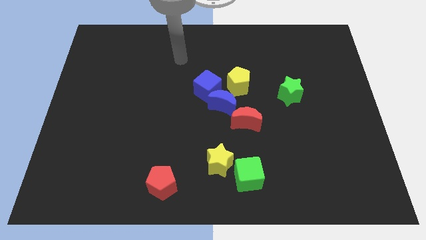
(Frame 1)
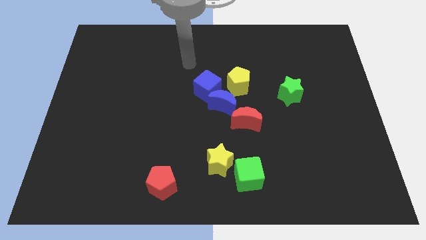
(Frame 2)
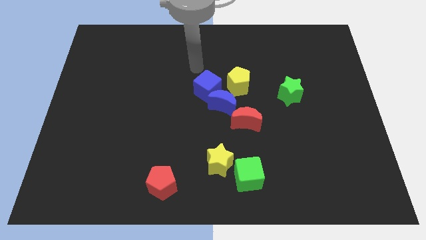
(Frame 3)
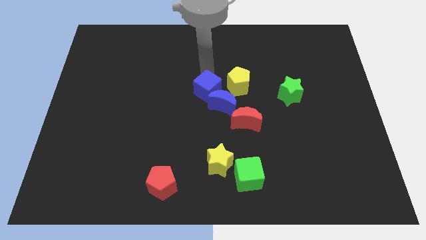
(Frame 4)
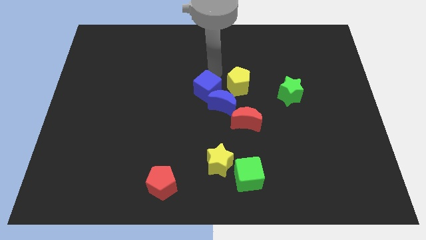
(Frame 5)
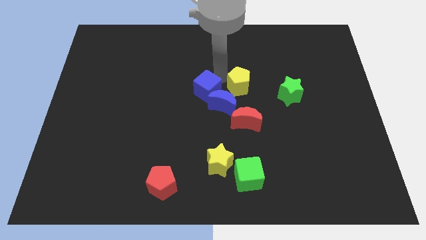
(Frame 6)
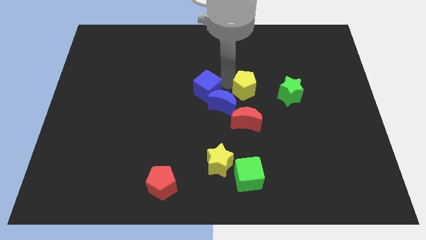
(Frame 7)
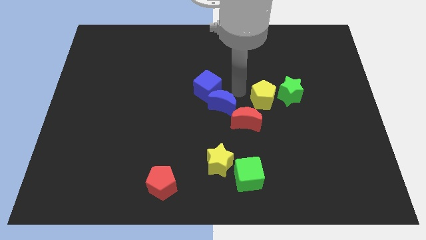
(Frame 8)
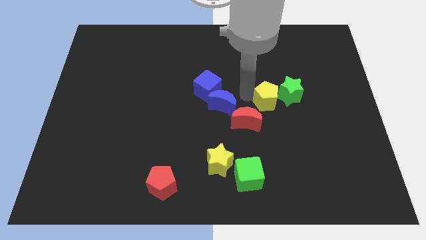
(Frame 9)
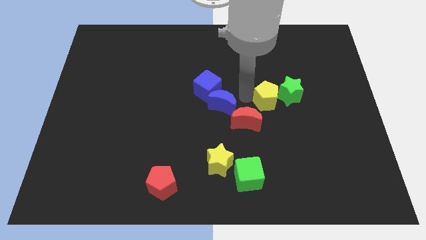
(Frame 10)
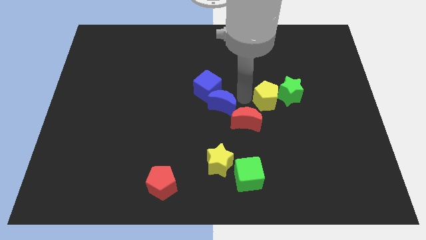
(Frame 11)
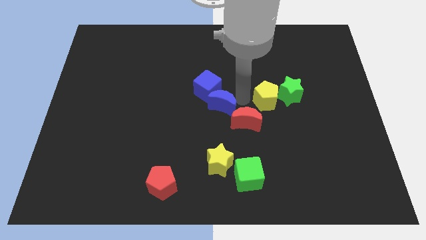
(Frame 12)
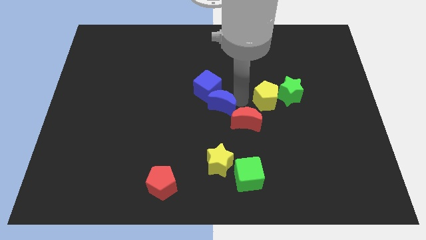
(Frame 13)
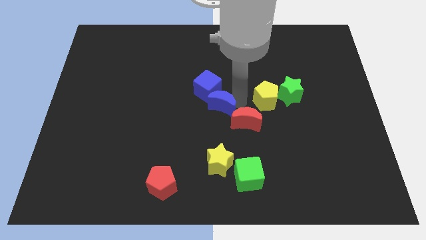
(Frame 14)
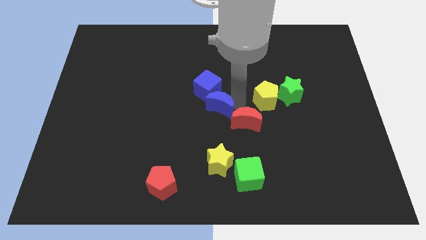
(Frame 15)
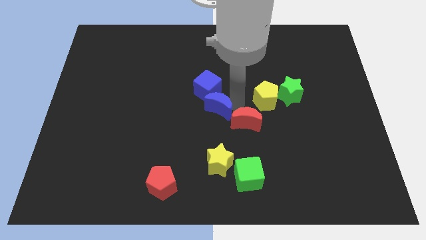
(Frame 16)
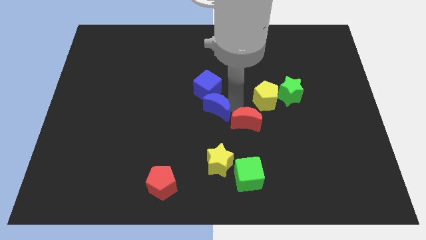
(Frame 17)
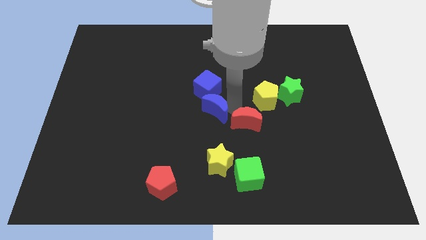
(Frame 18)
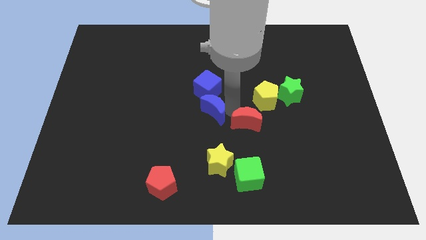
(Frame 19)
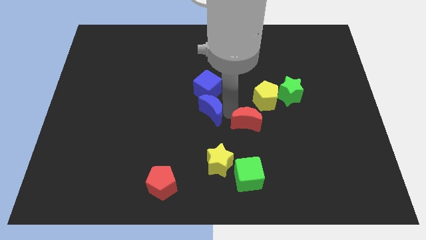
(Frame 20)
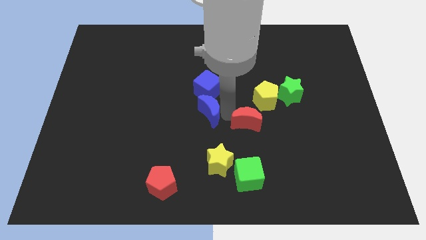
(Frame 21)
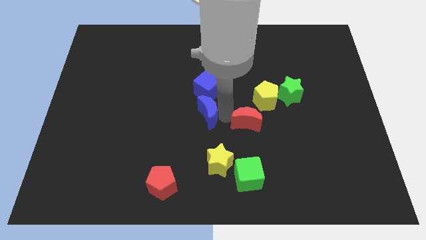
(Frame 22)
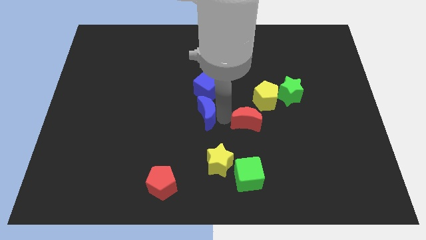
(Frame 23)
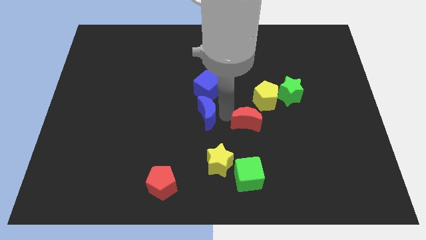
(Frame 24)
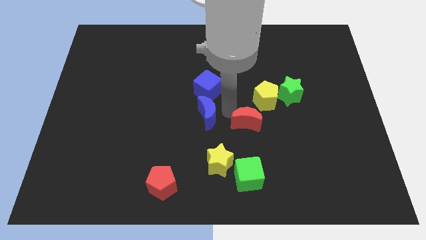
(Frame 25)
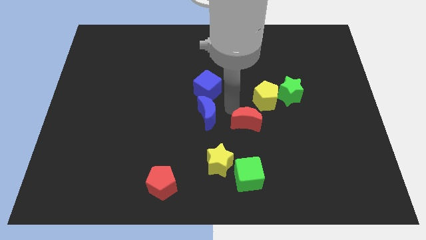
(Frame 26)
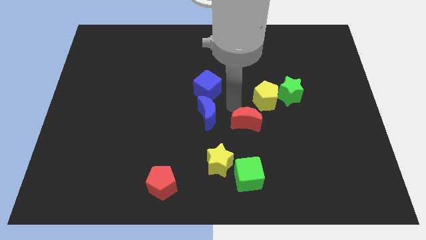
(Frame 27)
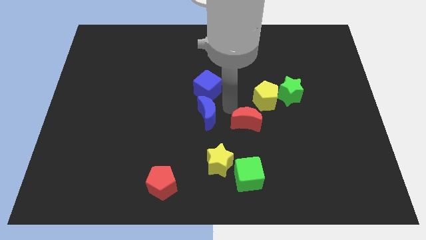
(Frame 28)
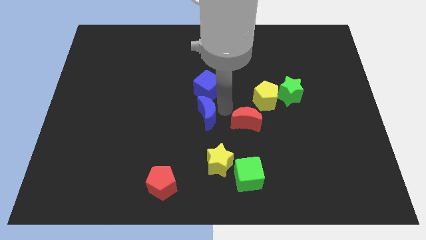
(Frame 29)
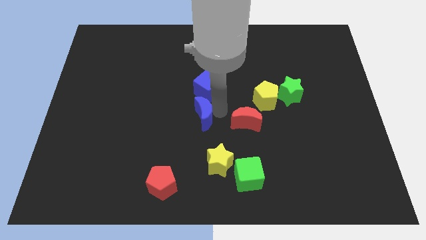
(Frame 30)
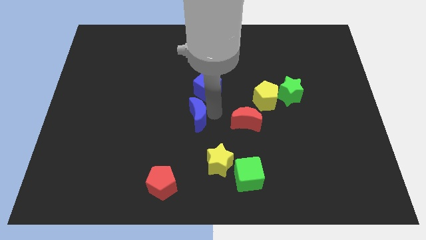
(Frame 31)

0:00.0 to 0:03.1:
move the blue moon away from the blue cube, red moon, and yellow pentagon

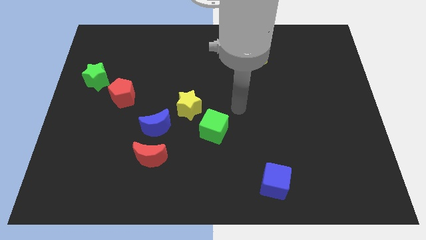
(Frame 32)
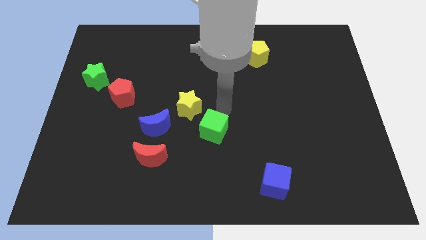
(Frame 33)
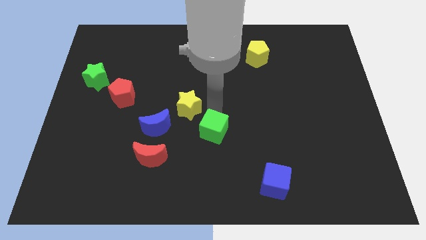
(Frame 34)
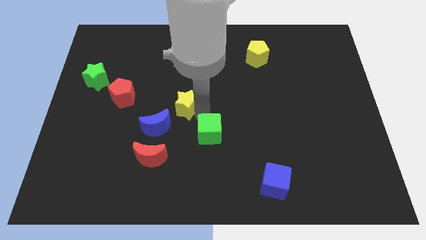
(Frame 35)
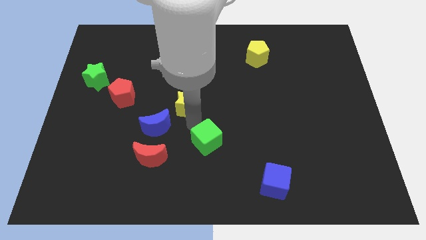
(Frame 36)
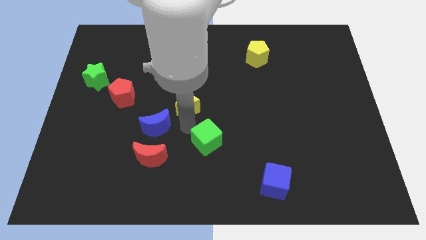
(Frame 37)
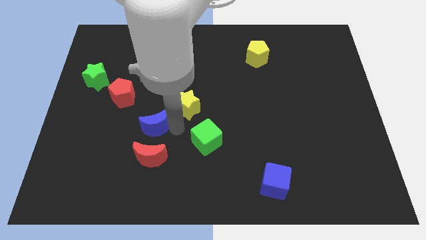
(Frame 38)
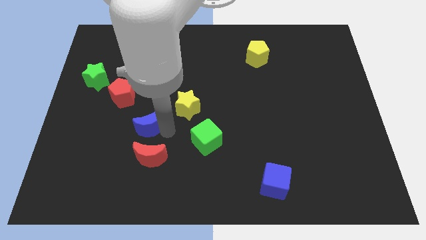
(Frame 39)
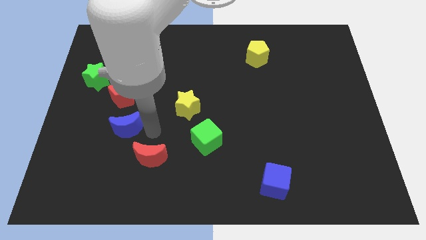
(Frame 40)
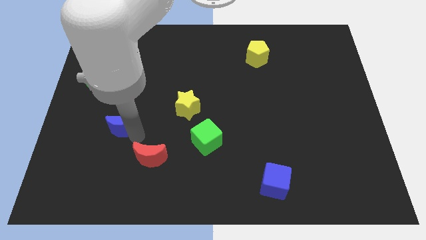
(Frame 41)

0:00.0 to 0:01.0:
separate the red moon from the blue moon

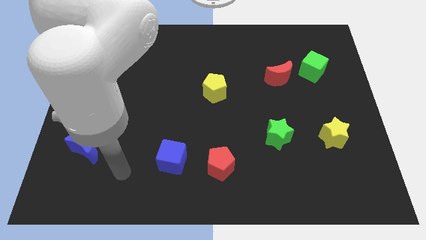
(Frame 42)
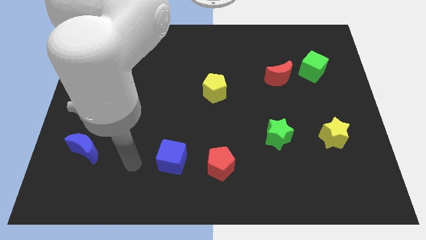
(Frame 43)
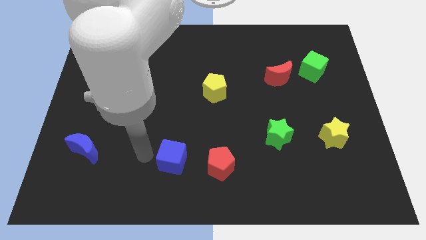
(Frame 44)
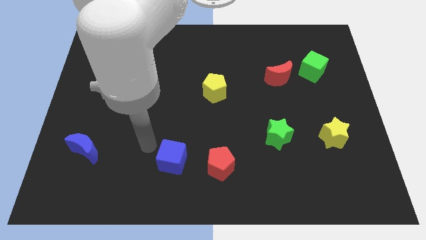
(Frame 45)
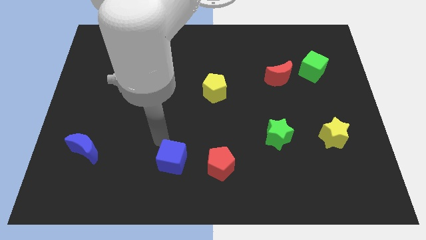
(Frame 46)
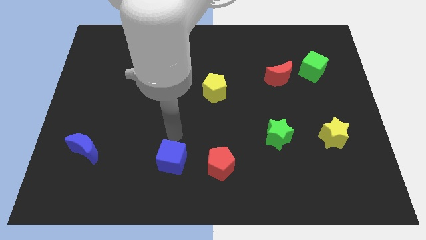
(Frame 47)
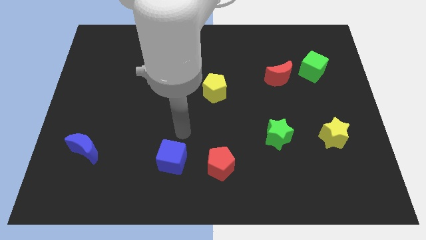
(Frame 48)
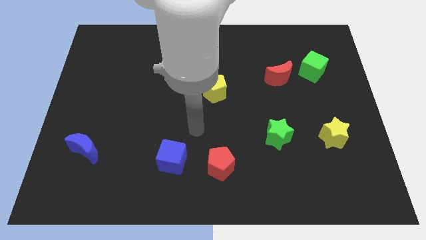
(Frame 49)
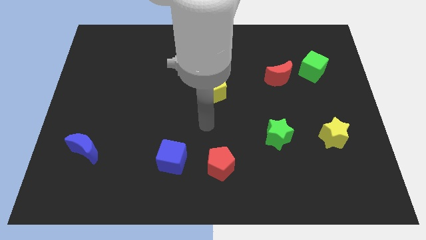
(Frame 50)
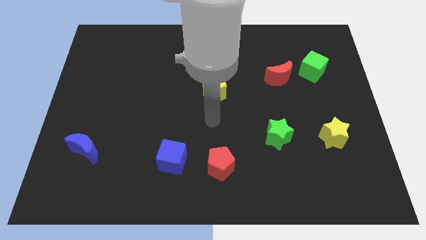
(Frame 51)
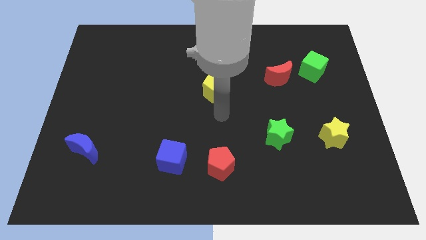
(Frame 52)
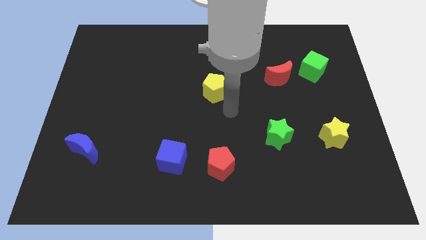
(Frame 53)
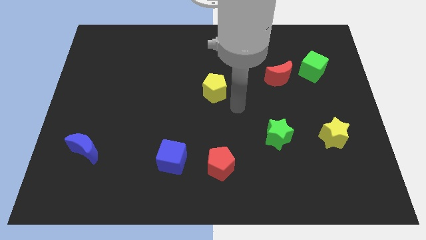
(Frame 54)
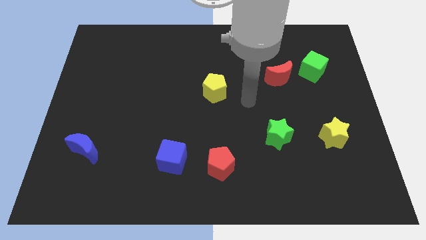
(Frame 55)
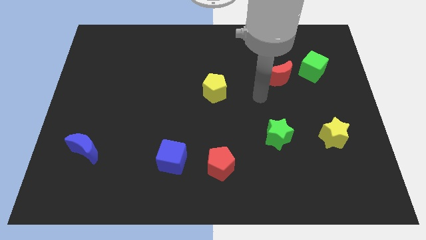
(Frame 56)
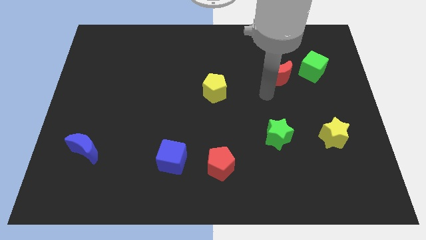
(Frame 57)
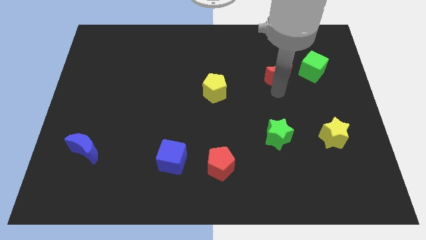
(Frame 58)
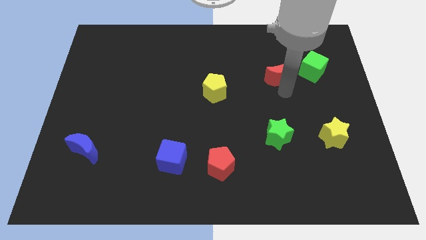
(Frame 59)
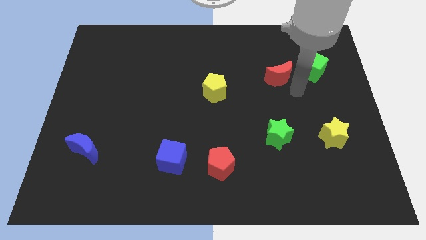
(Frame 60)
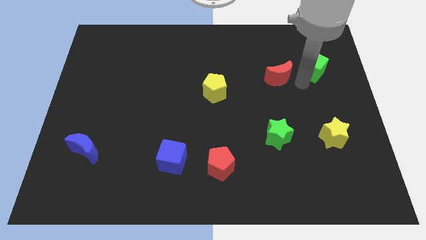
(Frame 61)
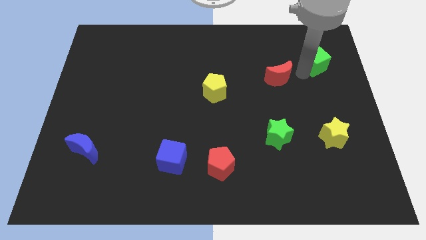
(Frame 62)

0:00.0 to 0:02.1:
separate the red moon from the green cube

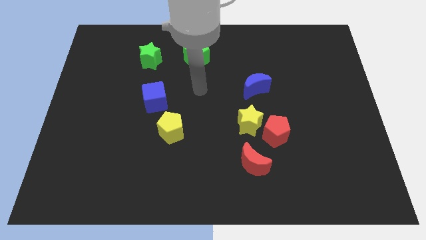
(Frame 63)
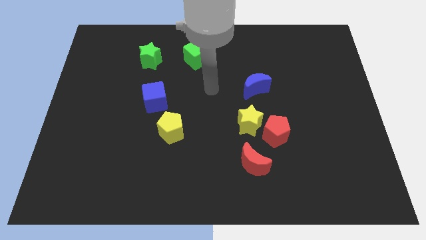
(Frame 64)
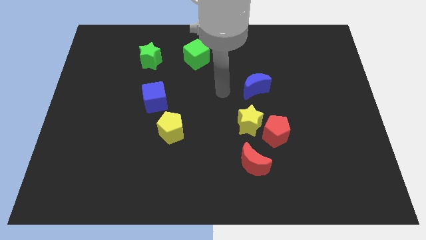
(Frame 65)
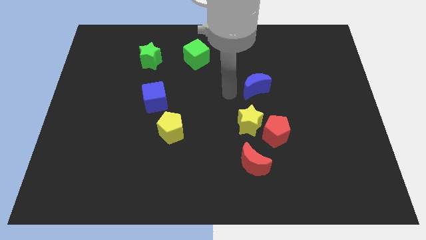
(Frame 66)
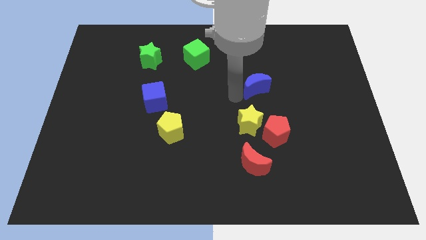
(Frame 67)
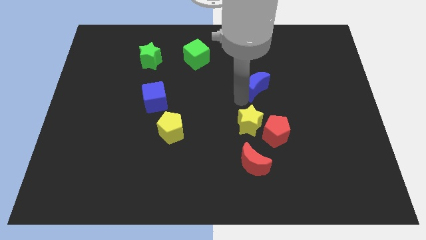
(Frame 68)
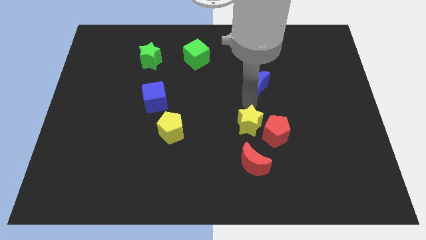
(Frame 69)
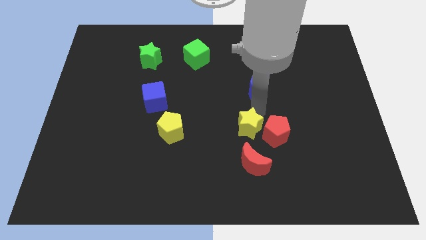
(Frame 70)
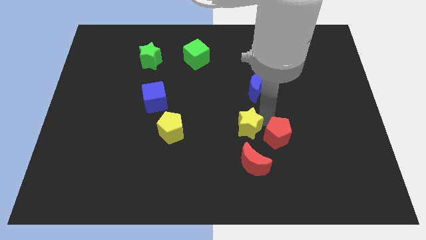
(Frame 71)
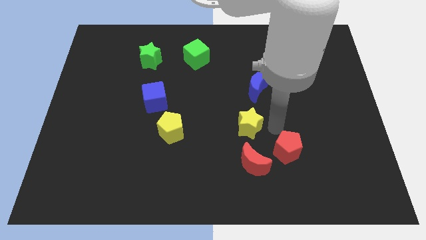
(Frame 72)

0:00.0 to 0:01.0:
pull the yellow star apart from the red pentagon

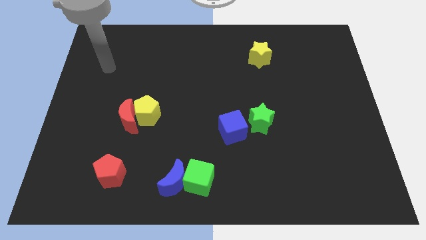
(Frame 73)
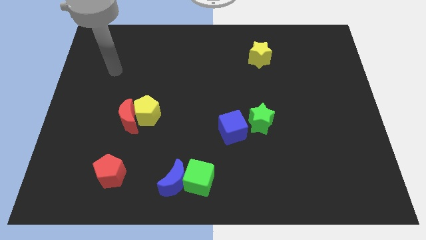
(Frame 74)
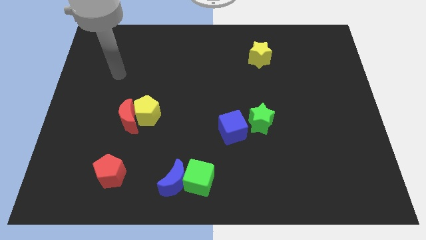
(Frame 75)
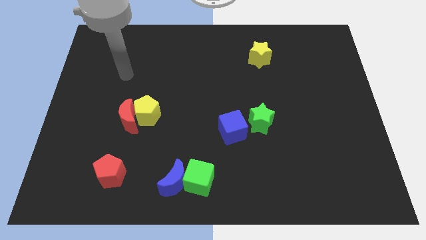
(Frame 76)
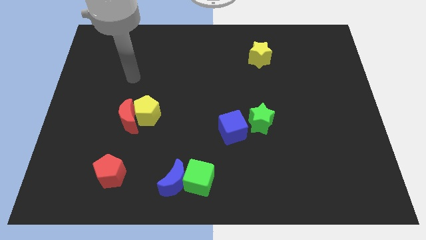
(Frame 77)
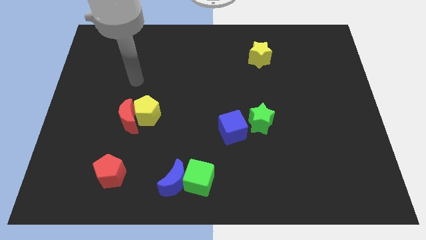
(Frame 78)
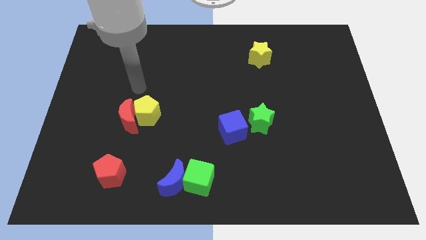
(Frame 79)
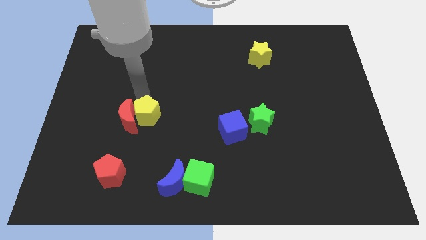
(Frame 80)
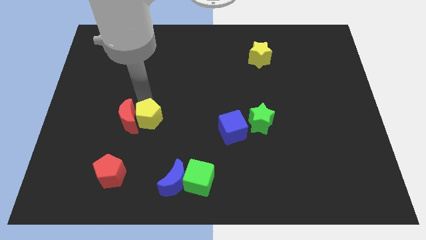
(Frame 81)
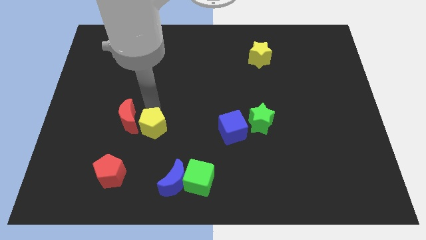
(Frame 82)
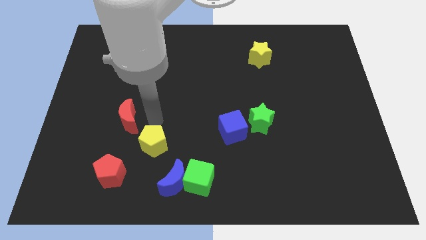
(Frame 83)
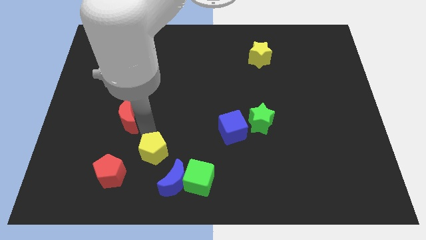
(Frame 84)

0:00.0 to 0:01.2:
move the red moon away from the yellow pentagon

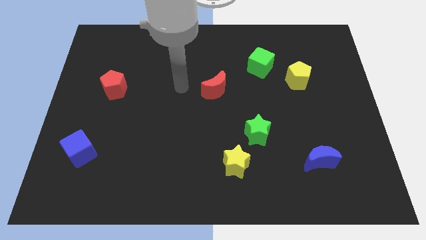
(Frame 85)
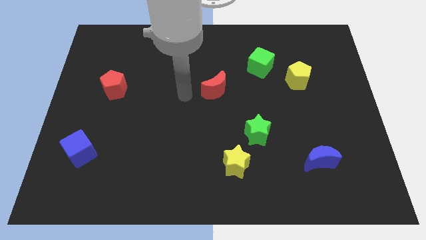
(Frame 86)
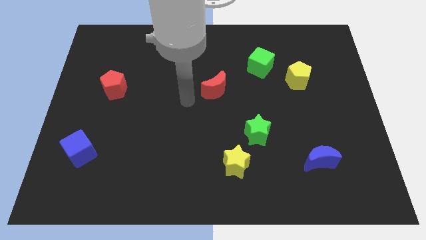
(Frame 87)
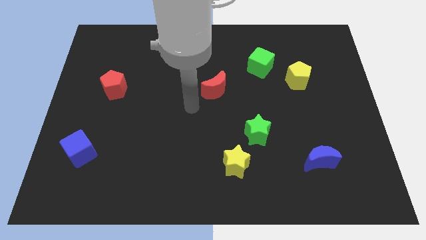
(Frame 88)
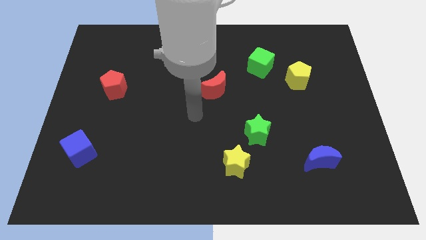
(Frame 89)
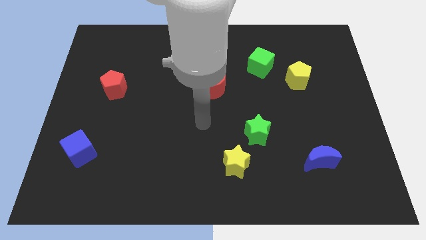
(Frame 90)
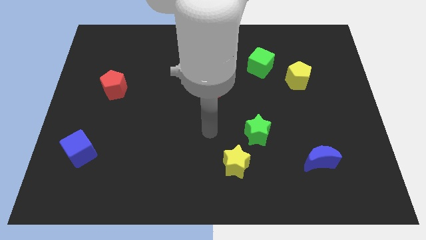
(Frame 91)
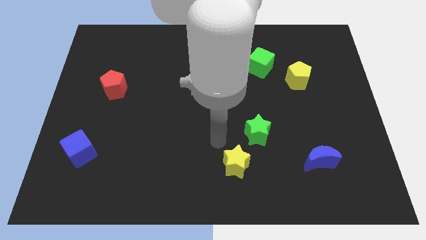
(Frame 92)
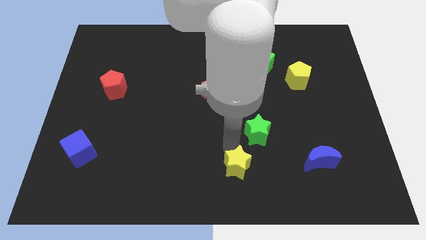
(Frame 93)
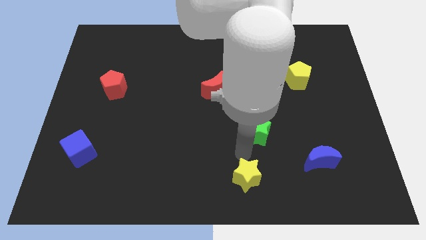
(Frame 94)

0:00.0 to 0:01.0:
separate the green star from the yellow star
